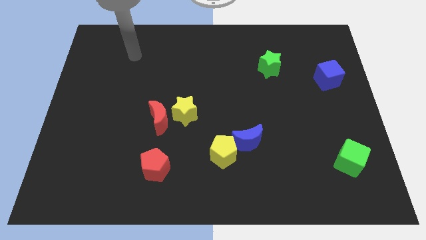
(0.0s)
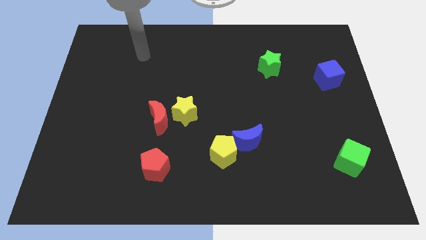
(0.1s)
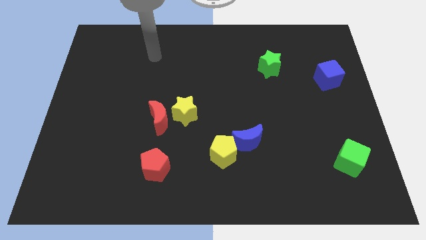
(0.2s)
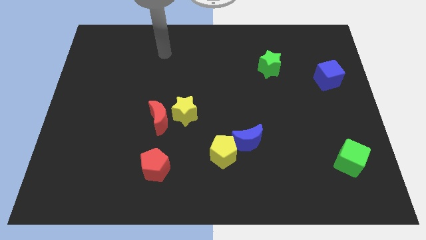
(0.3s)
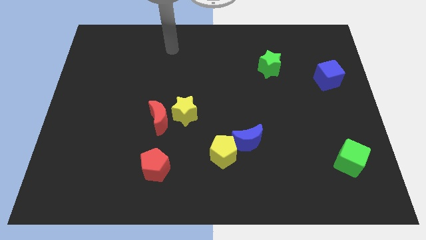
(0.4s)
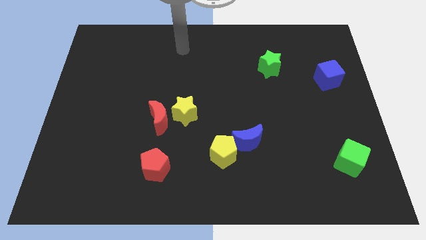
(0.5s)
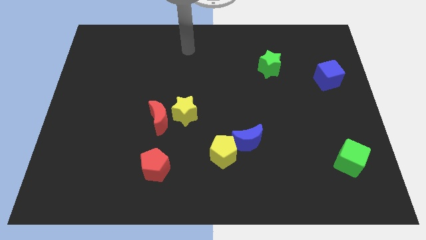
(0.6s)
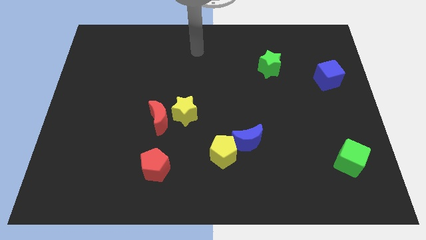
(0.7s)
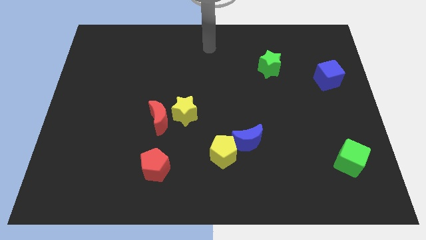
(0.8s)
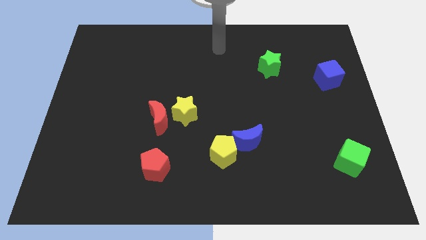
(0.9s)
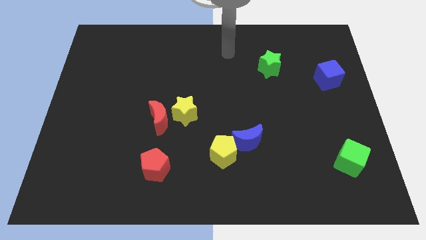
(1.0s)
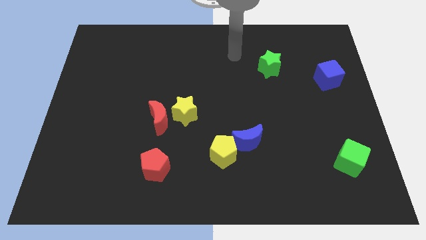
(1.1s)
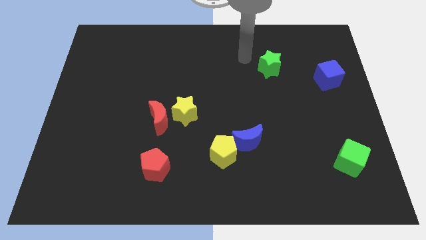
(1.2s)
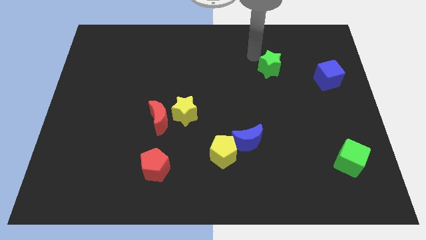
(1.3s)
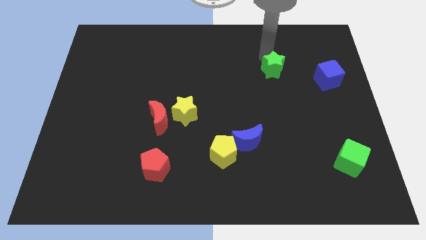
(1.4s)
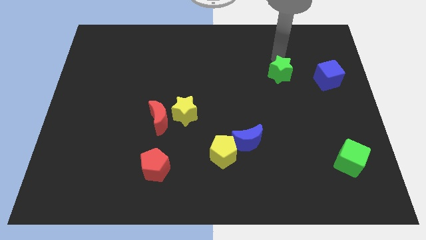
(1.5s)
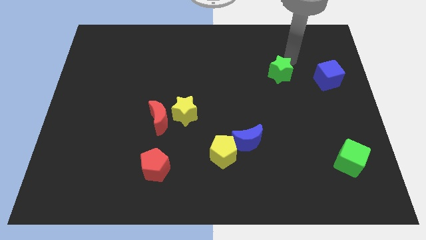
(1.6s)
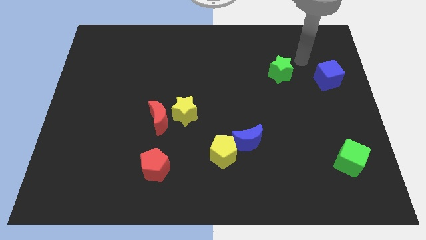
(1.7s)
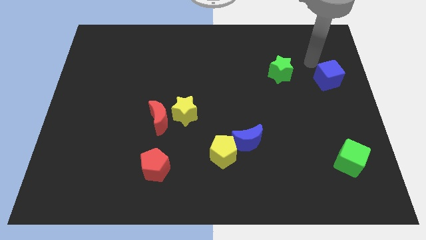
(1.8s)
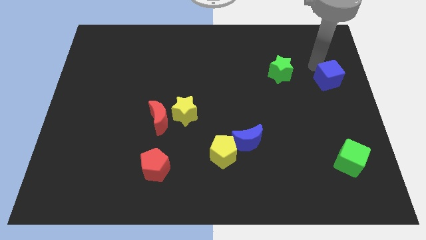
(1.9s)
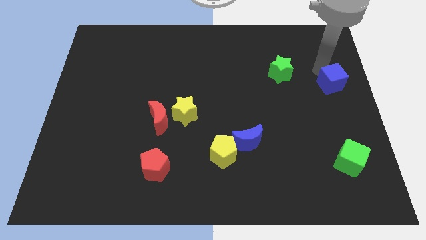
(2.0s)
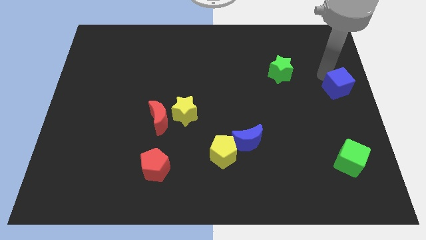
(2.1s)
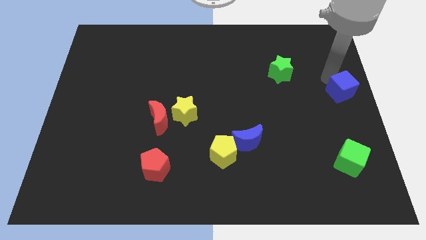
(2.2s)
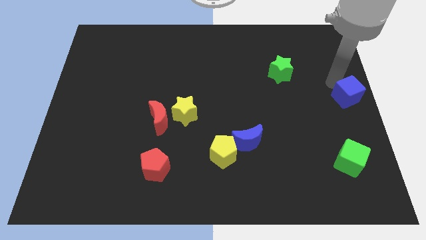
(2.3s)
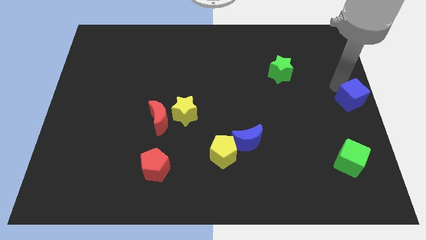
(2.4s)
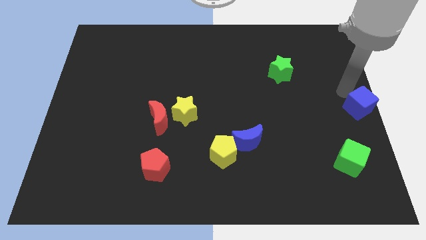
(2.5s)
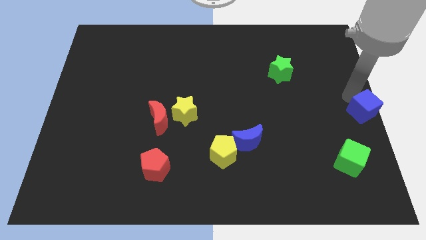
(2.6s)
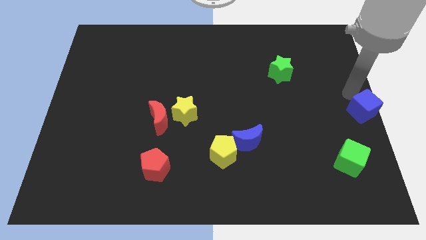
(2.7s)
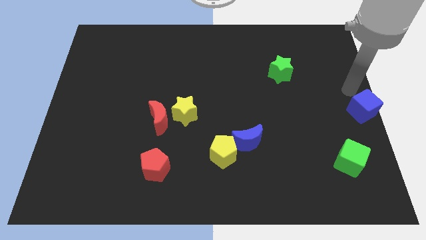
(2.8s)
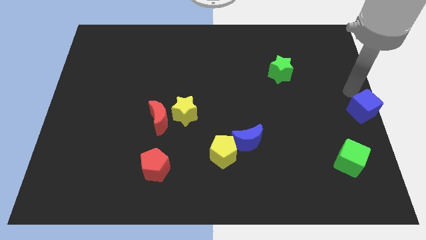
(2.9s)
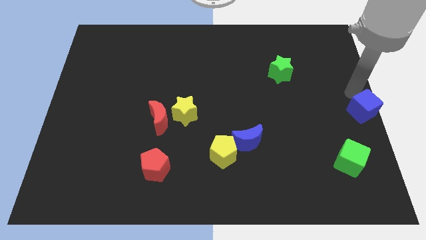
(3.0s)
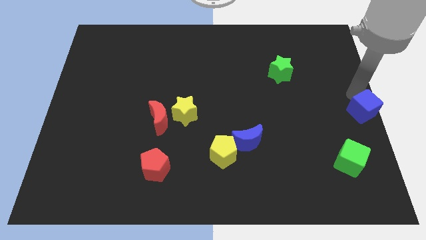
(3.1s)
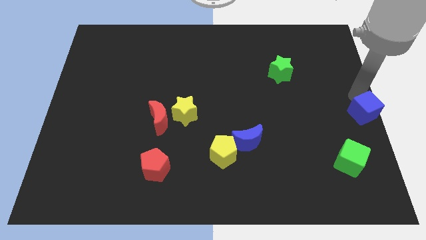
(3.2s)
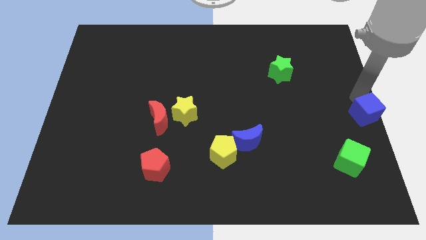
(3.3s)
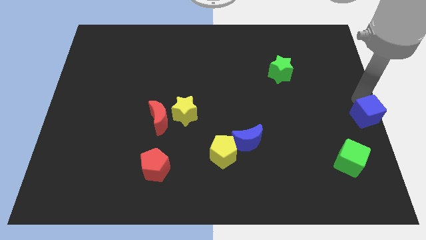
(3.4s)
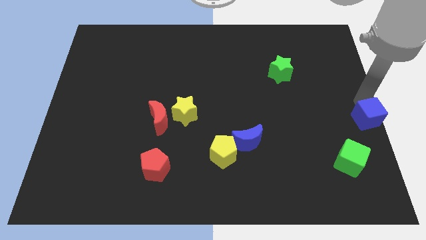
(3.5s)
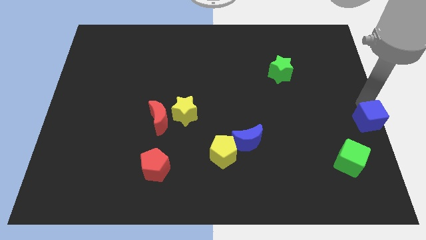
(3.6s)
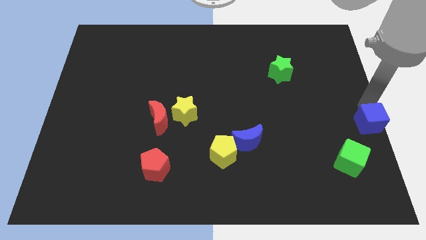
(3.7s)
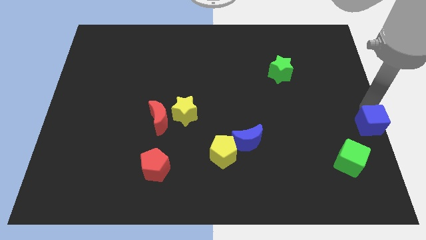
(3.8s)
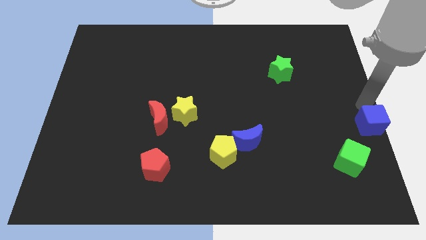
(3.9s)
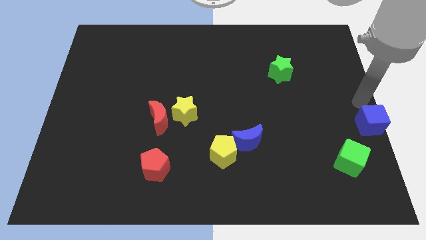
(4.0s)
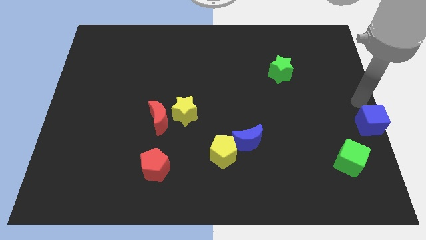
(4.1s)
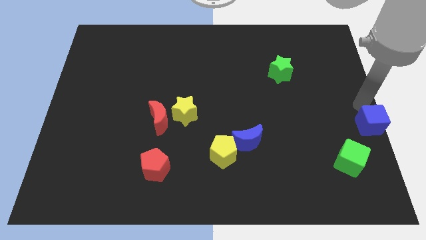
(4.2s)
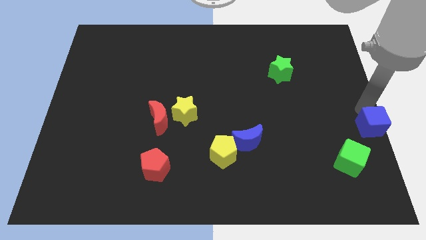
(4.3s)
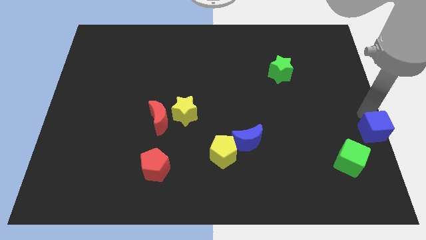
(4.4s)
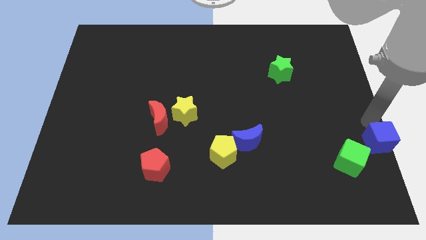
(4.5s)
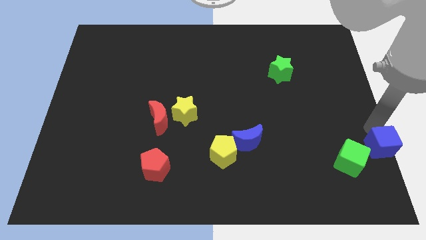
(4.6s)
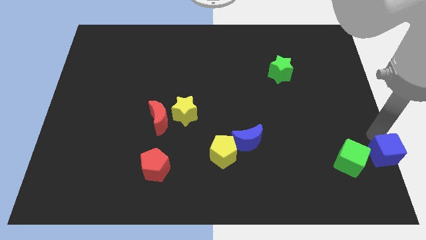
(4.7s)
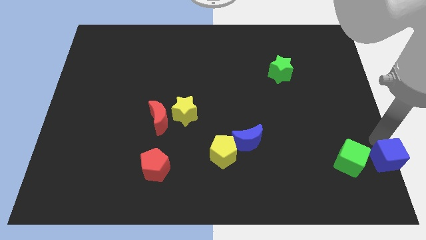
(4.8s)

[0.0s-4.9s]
move the blue cube to the bottom right corner

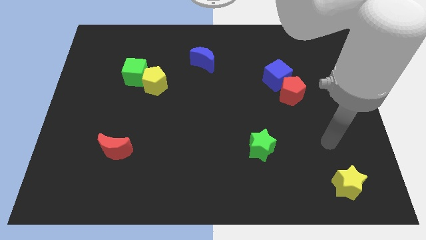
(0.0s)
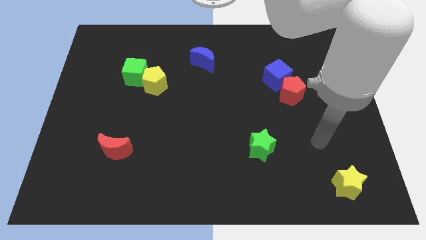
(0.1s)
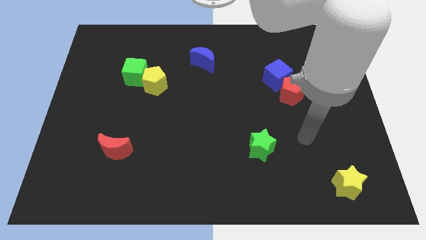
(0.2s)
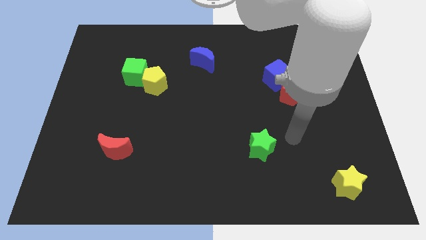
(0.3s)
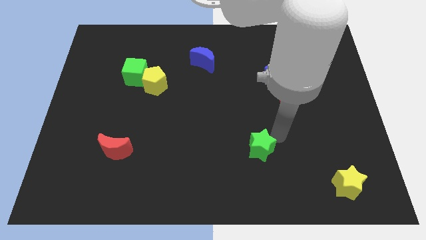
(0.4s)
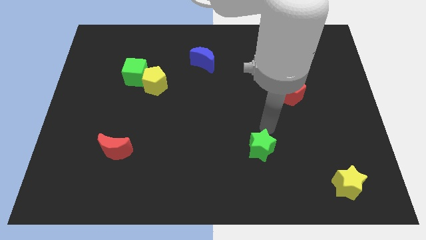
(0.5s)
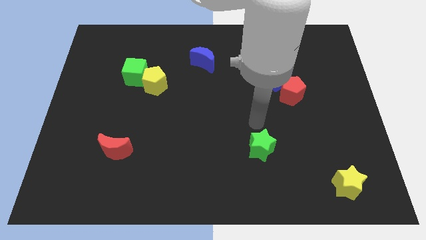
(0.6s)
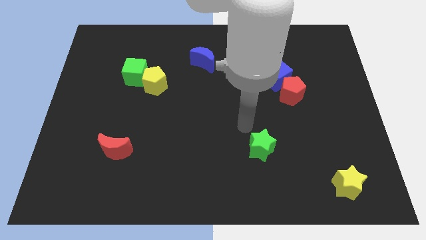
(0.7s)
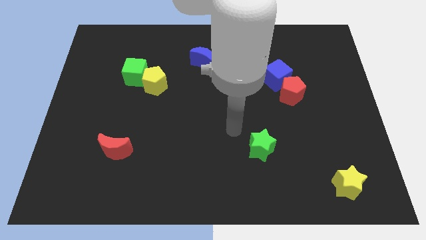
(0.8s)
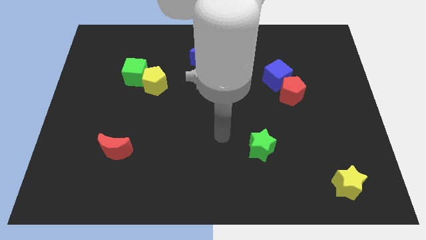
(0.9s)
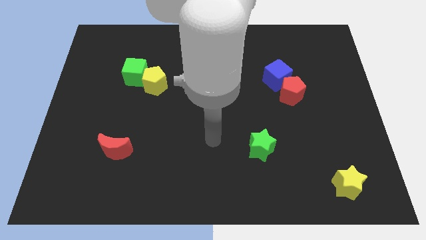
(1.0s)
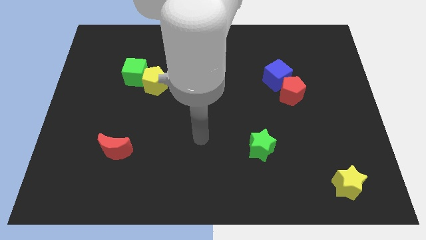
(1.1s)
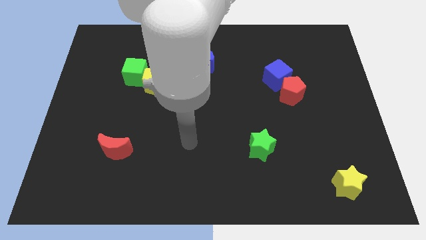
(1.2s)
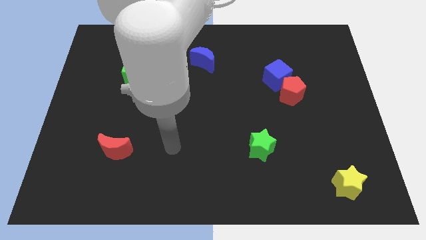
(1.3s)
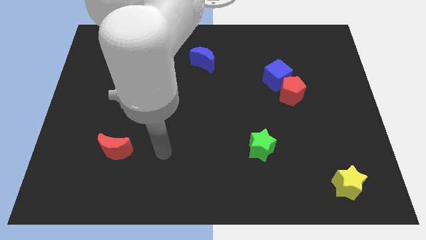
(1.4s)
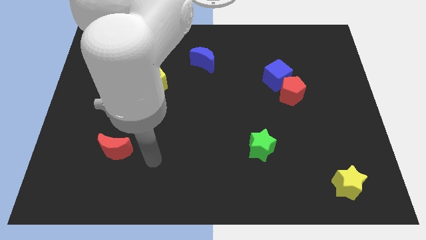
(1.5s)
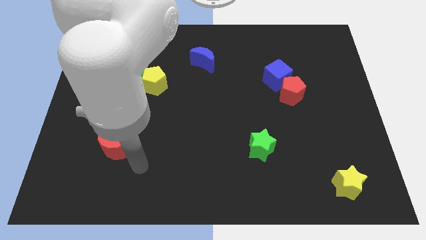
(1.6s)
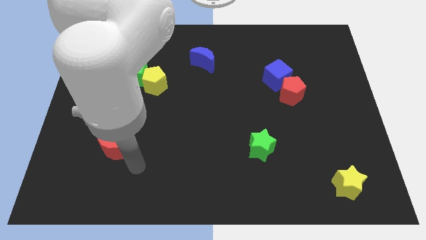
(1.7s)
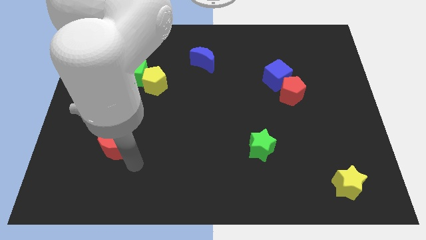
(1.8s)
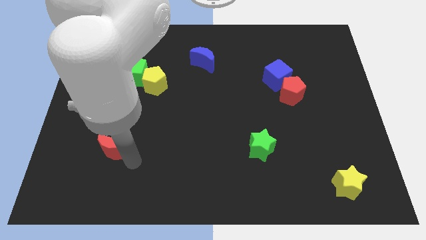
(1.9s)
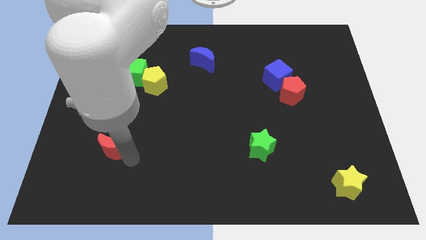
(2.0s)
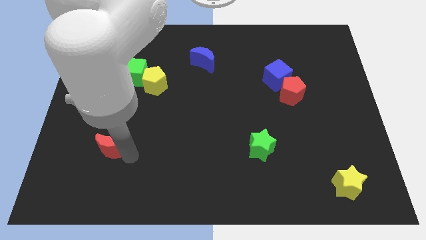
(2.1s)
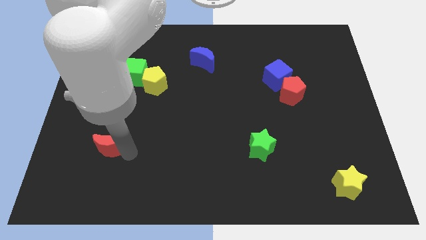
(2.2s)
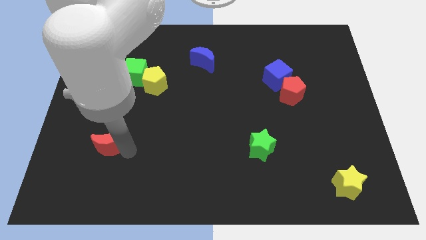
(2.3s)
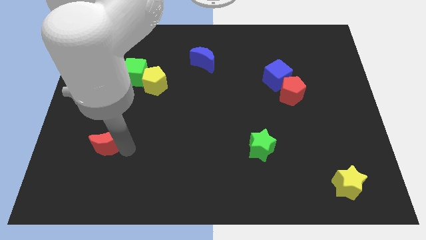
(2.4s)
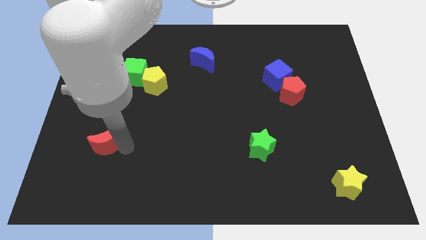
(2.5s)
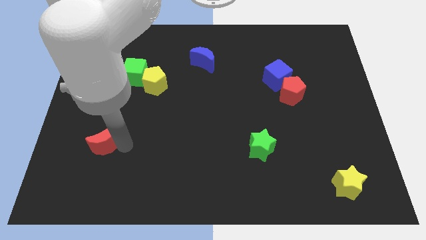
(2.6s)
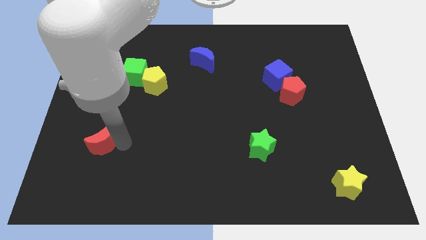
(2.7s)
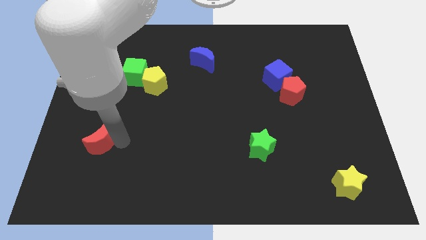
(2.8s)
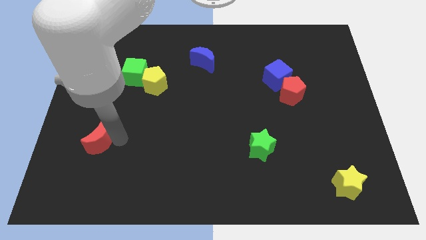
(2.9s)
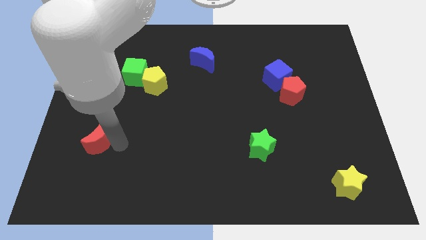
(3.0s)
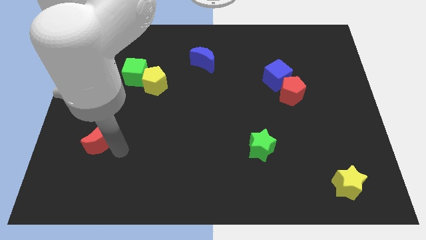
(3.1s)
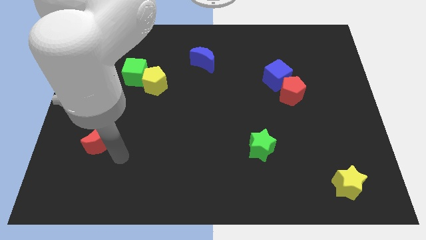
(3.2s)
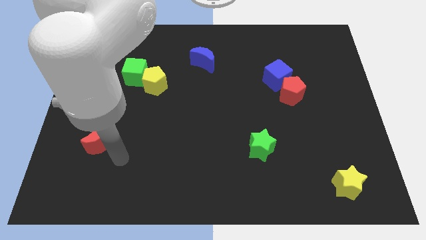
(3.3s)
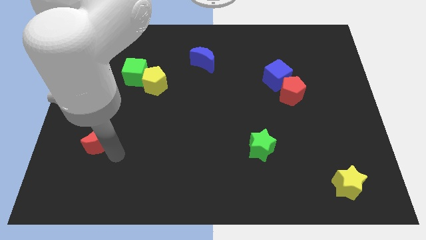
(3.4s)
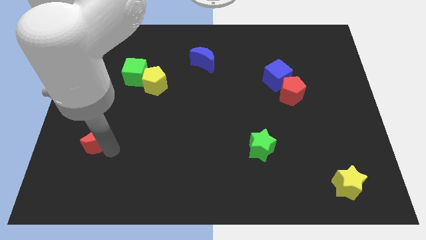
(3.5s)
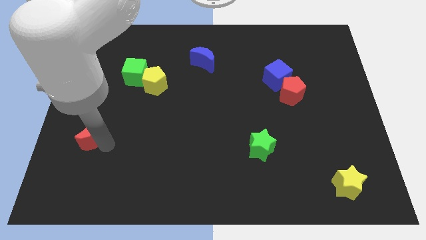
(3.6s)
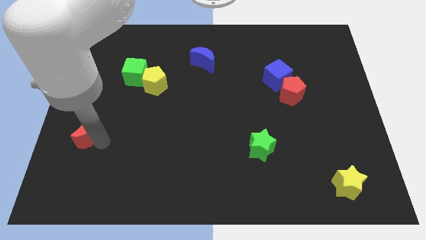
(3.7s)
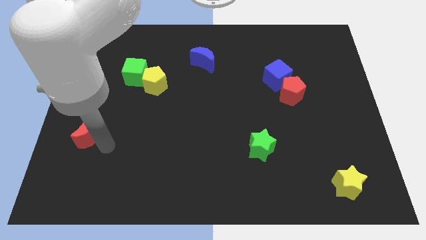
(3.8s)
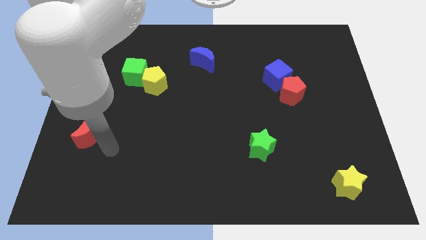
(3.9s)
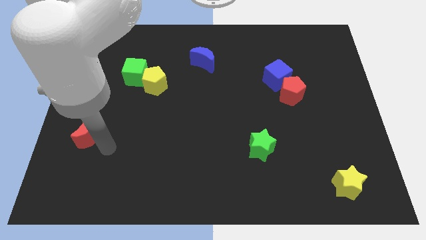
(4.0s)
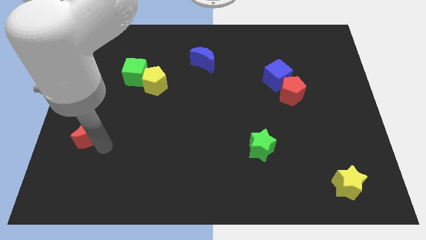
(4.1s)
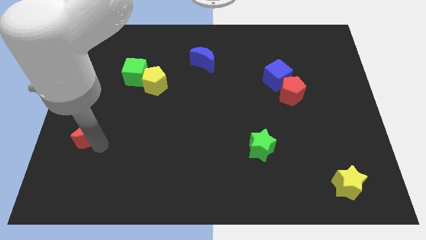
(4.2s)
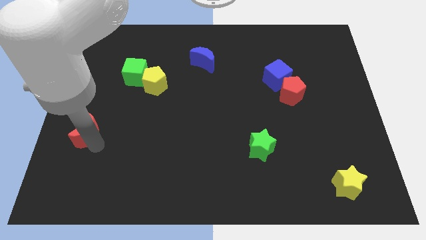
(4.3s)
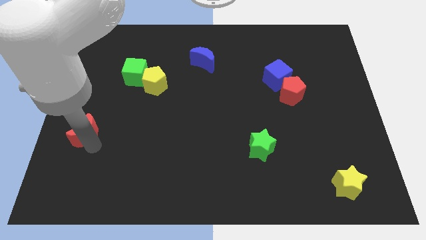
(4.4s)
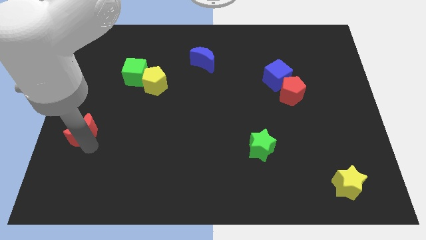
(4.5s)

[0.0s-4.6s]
slide the red moon to the center left
